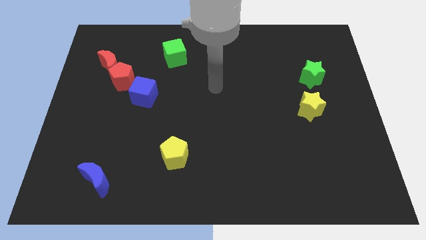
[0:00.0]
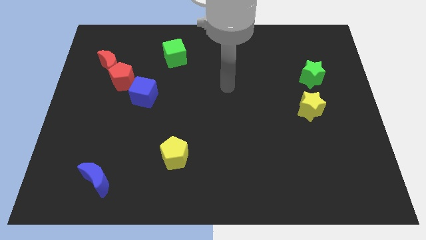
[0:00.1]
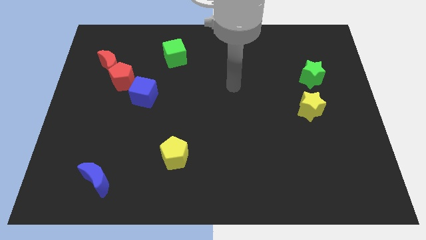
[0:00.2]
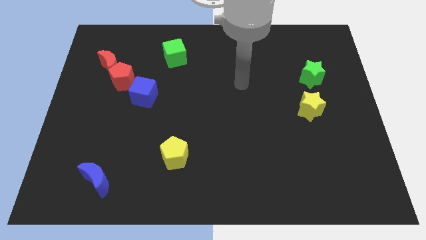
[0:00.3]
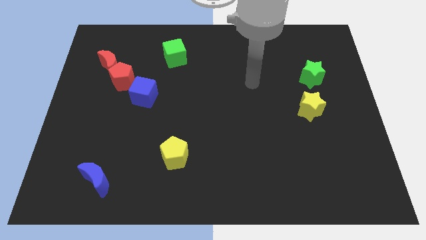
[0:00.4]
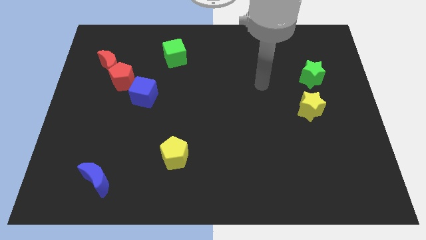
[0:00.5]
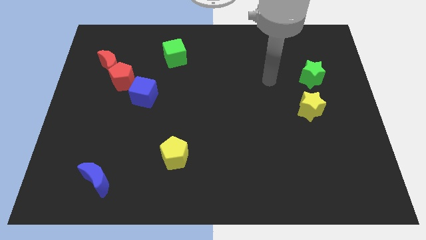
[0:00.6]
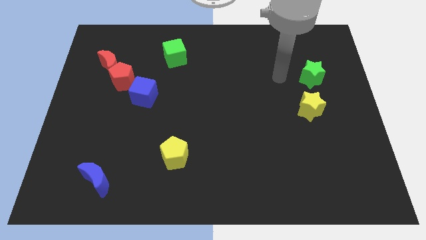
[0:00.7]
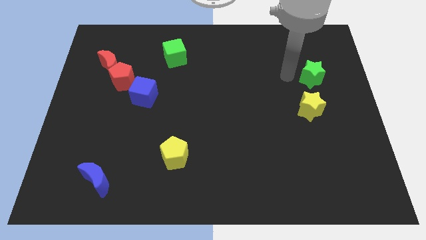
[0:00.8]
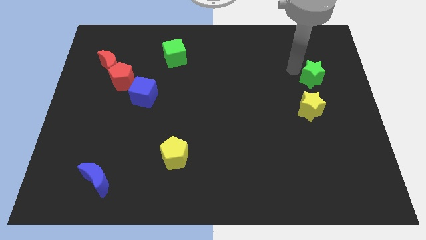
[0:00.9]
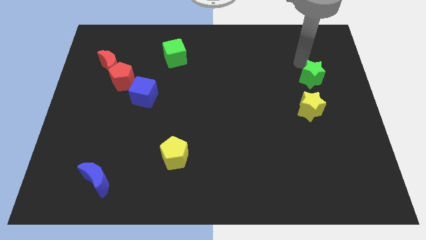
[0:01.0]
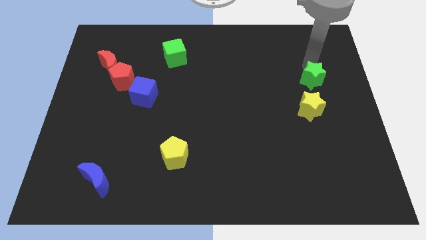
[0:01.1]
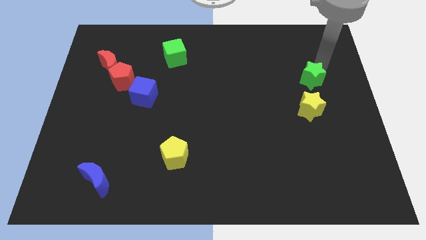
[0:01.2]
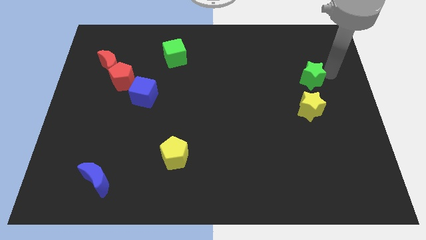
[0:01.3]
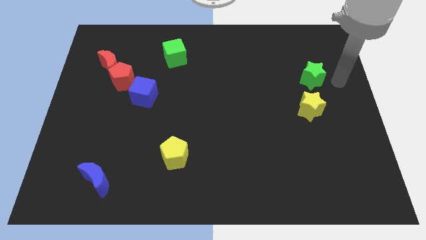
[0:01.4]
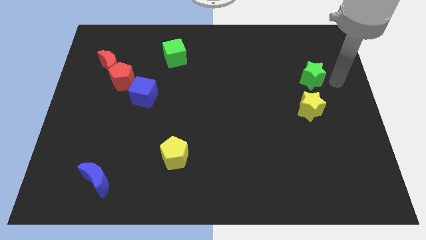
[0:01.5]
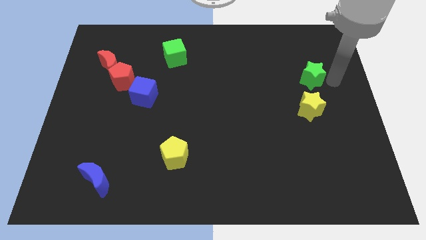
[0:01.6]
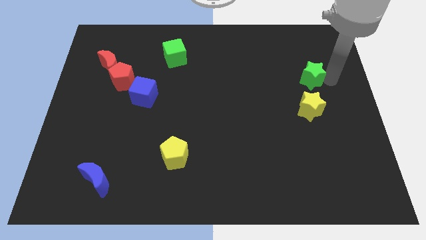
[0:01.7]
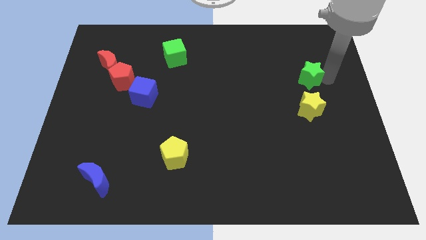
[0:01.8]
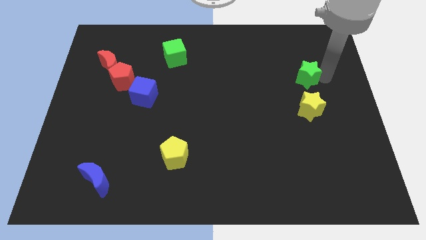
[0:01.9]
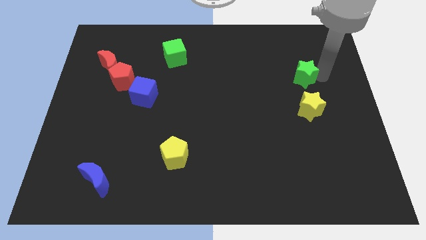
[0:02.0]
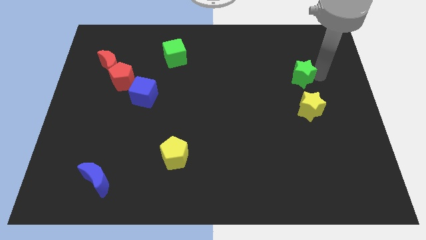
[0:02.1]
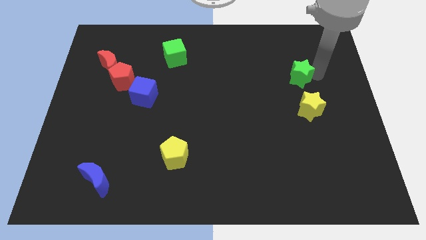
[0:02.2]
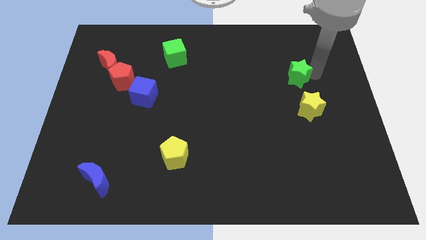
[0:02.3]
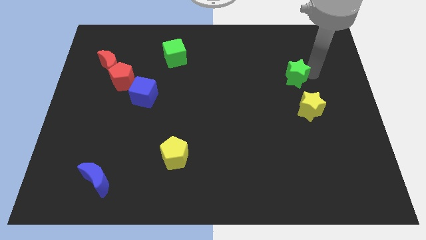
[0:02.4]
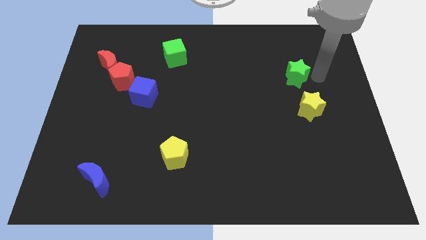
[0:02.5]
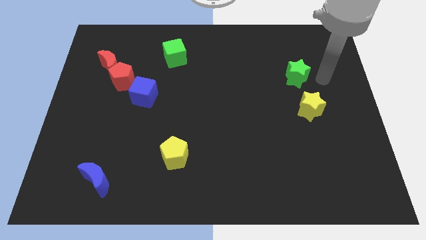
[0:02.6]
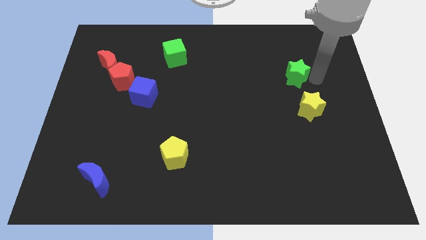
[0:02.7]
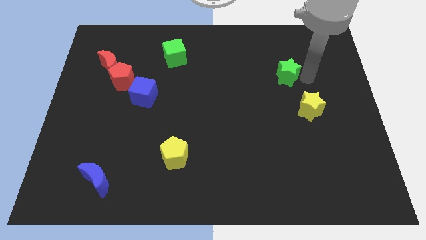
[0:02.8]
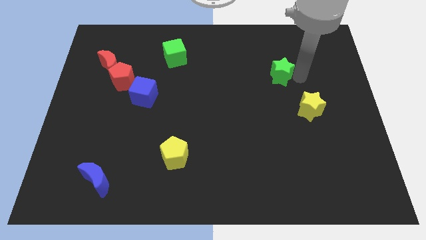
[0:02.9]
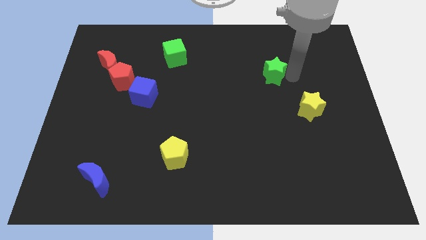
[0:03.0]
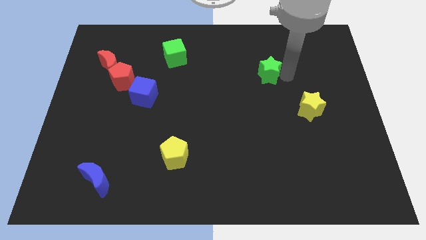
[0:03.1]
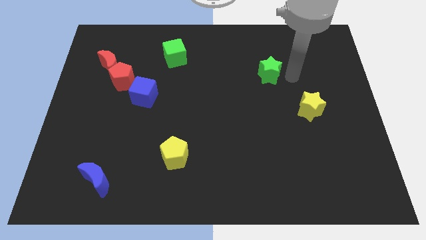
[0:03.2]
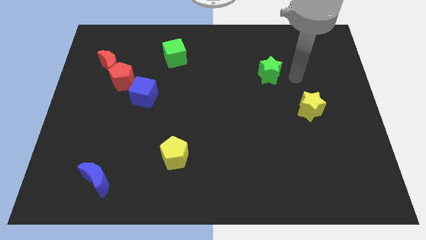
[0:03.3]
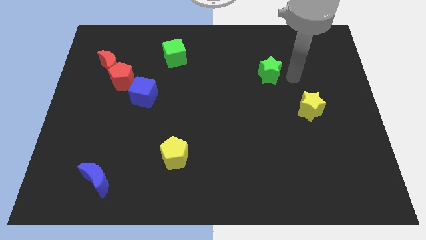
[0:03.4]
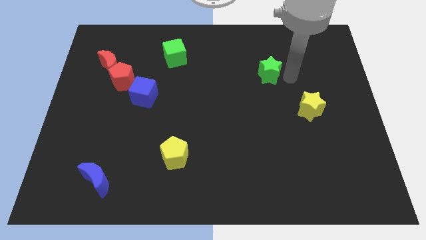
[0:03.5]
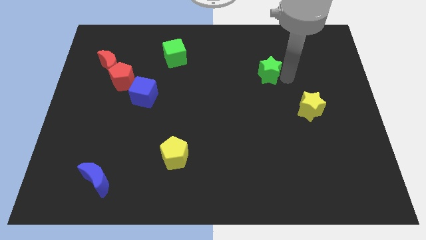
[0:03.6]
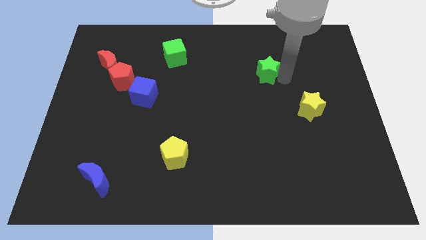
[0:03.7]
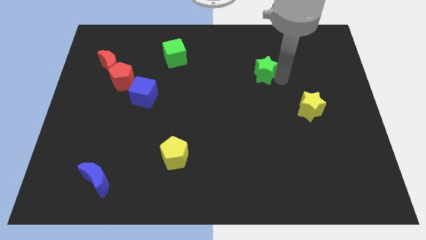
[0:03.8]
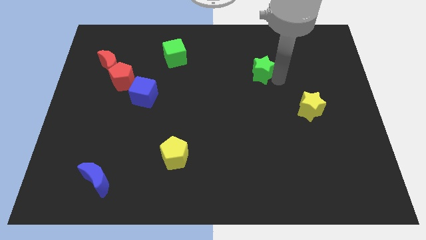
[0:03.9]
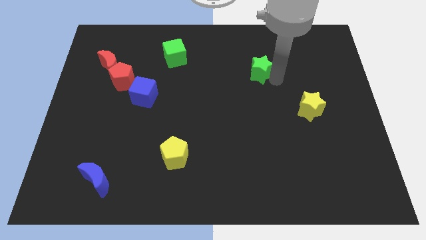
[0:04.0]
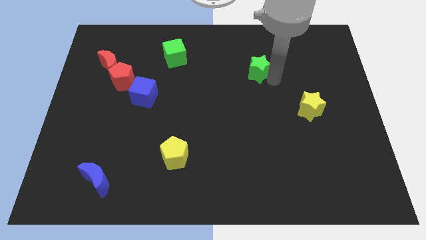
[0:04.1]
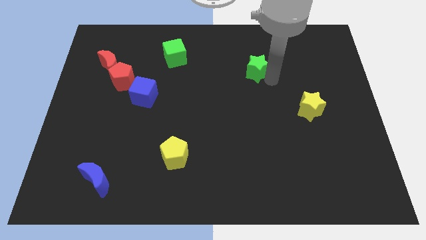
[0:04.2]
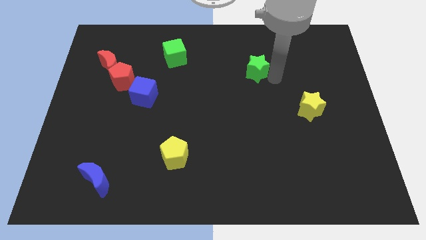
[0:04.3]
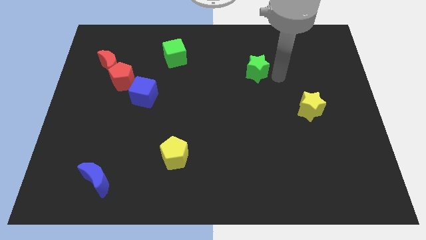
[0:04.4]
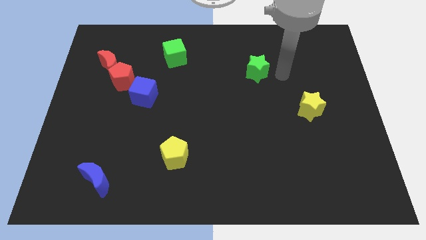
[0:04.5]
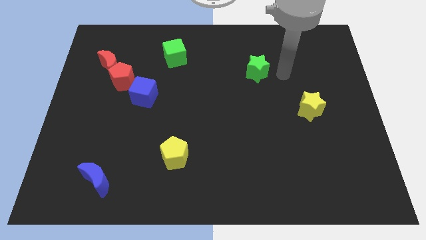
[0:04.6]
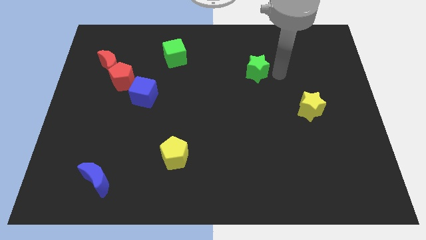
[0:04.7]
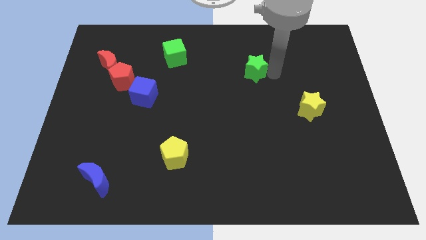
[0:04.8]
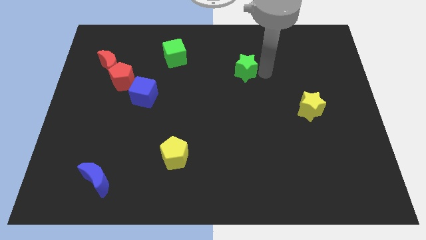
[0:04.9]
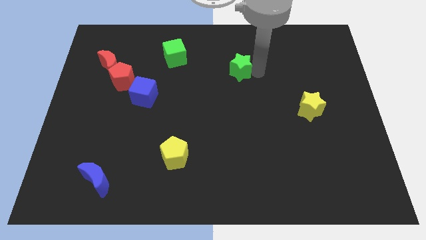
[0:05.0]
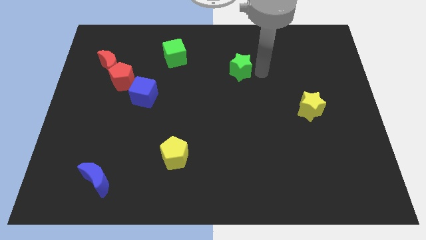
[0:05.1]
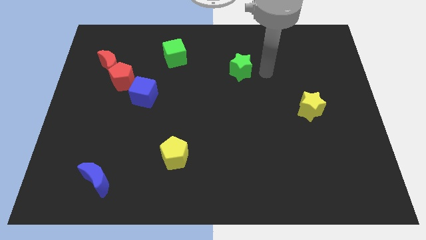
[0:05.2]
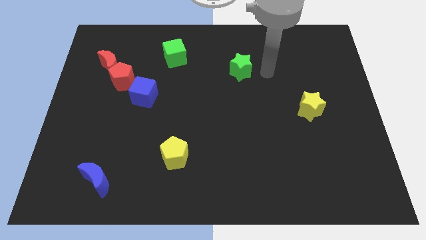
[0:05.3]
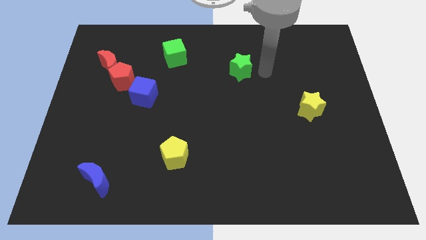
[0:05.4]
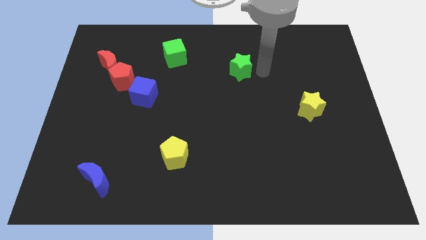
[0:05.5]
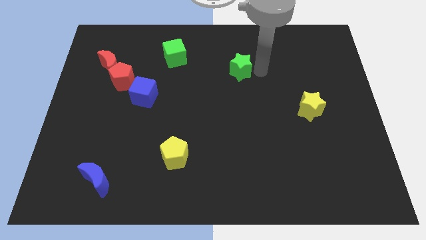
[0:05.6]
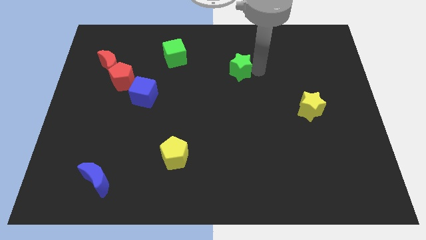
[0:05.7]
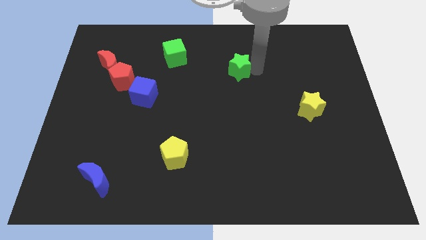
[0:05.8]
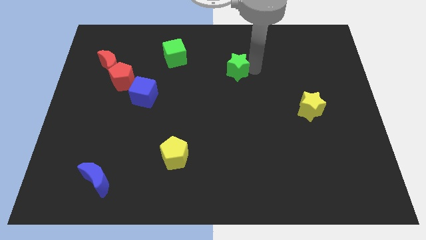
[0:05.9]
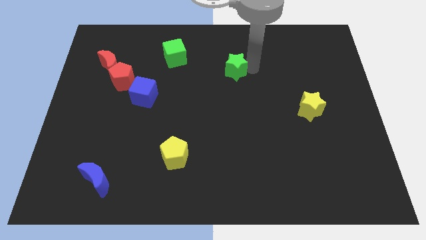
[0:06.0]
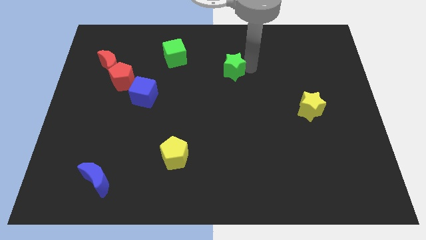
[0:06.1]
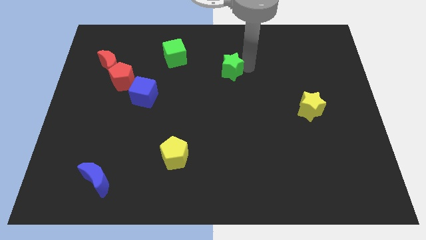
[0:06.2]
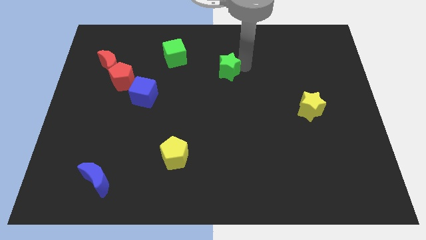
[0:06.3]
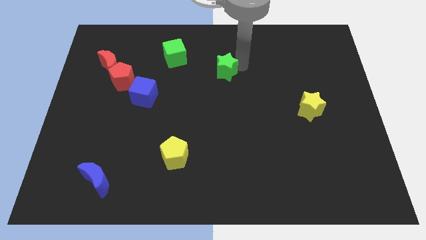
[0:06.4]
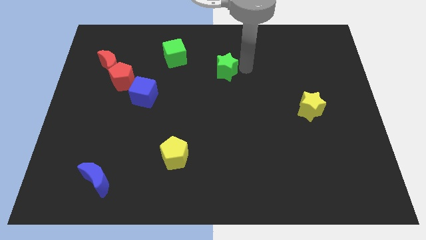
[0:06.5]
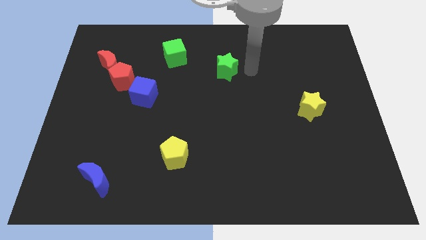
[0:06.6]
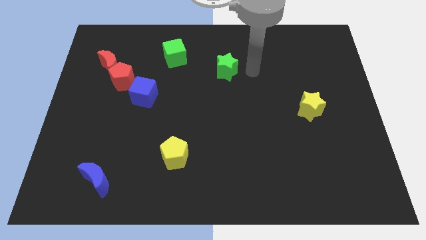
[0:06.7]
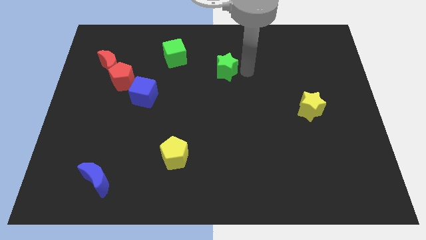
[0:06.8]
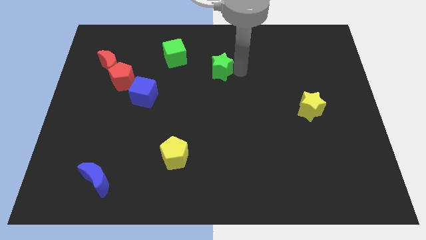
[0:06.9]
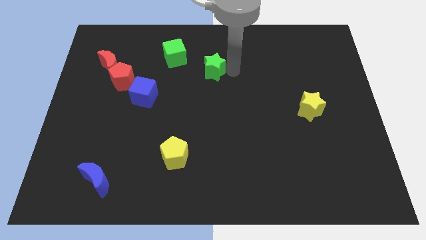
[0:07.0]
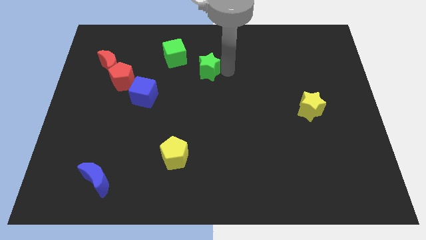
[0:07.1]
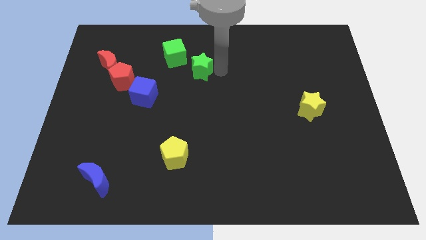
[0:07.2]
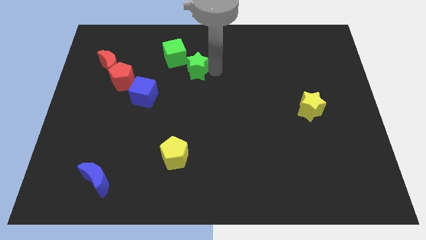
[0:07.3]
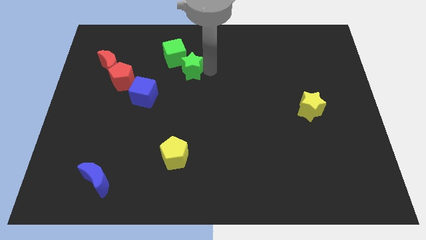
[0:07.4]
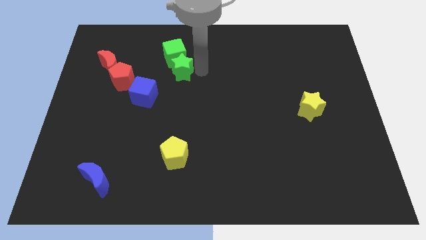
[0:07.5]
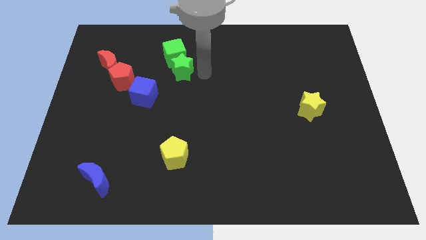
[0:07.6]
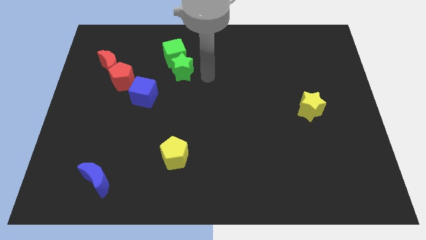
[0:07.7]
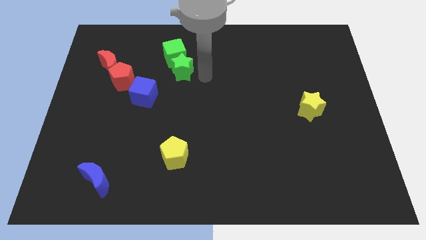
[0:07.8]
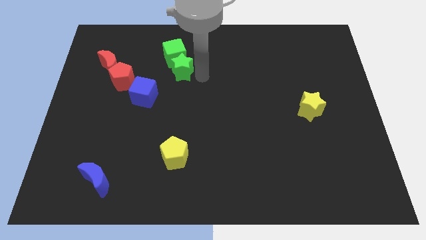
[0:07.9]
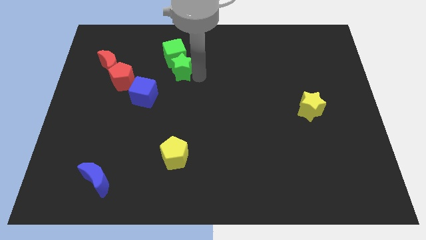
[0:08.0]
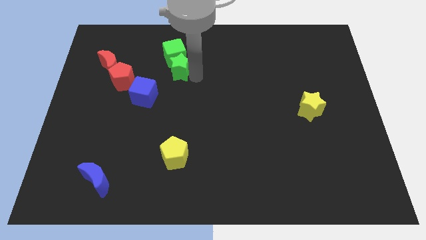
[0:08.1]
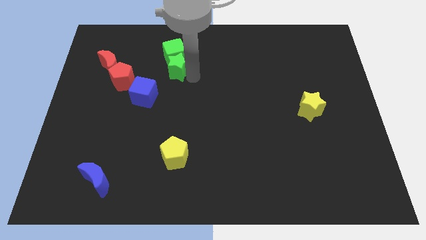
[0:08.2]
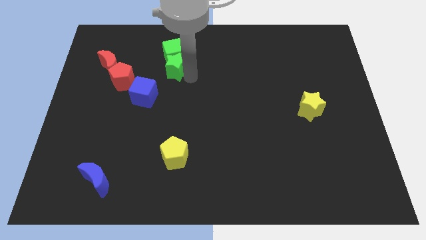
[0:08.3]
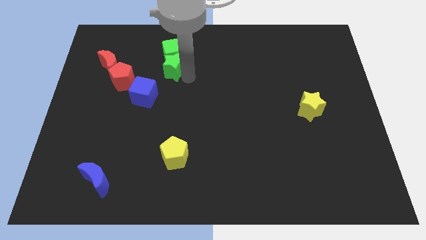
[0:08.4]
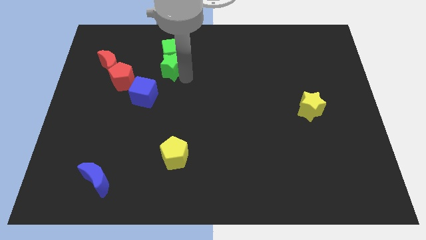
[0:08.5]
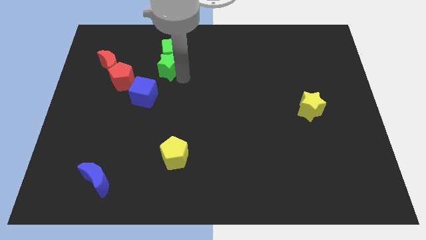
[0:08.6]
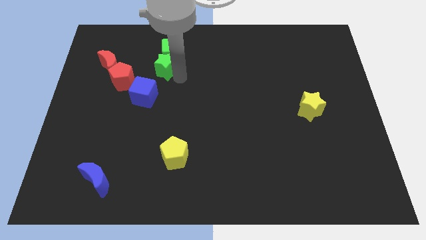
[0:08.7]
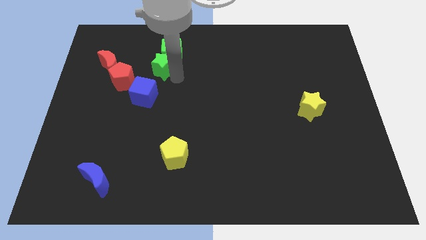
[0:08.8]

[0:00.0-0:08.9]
slide the green star to the top right of the red pentagon
